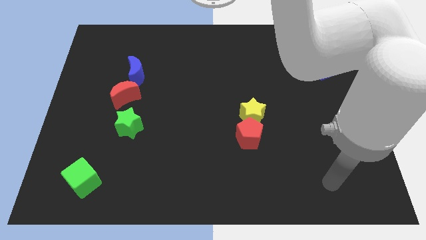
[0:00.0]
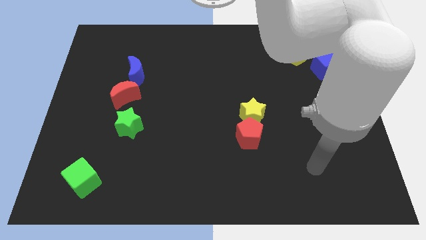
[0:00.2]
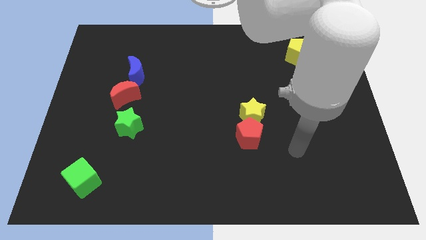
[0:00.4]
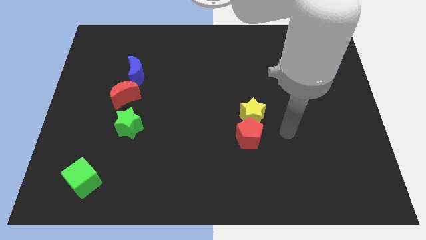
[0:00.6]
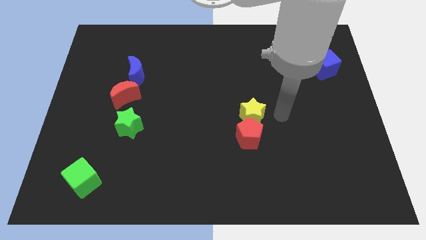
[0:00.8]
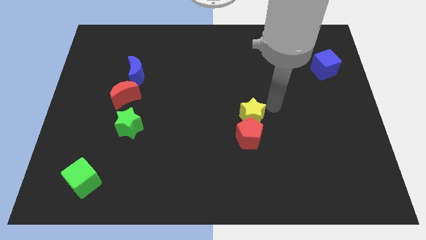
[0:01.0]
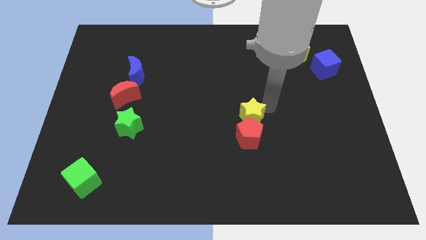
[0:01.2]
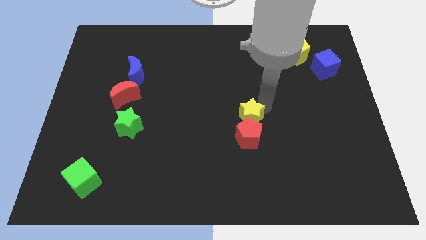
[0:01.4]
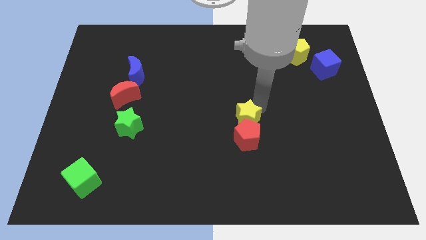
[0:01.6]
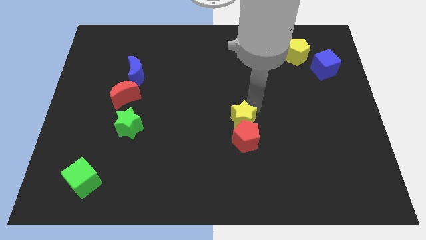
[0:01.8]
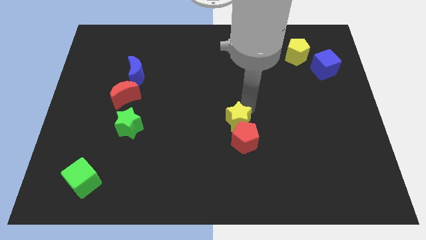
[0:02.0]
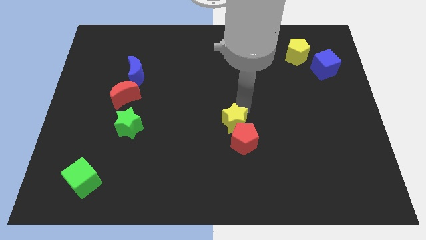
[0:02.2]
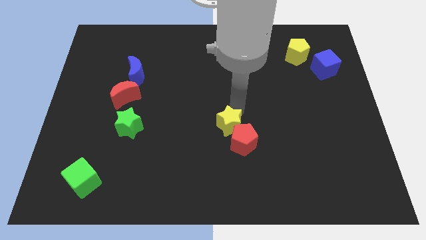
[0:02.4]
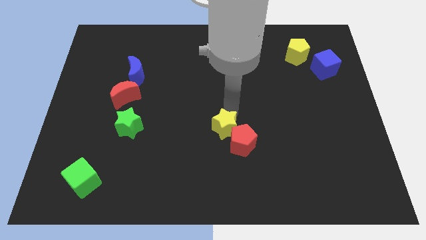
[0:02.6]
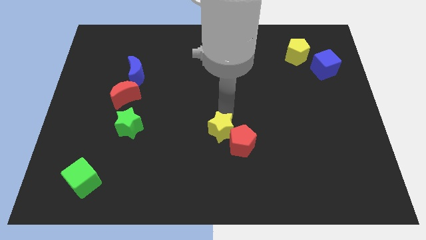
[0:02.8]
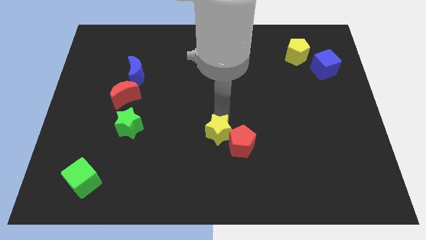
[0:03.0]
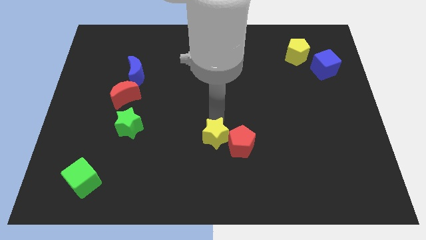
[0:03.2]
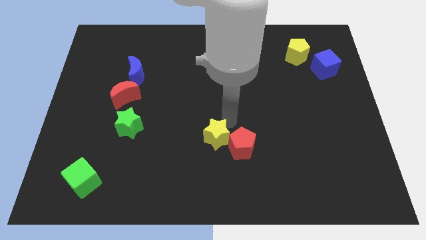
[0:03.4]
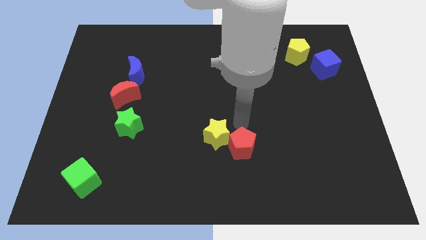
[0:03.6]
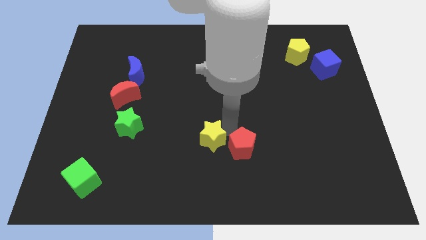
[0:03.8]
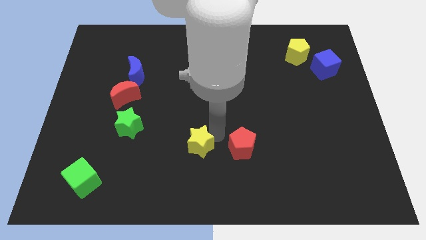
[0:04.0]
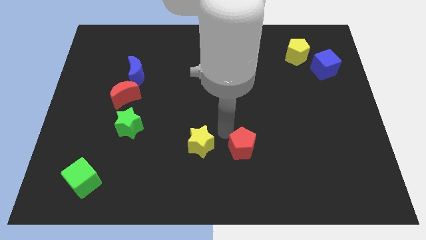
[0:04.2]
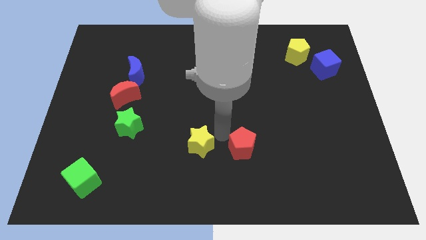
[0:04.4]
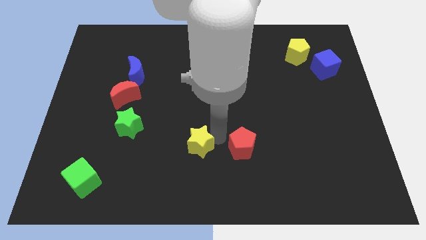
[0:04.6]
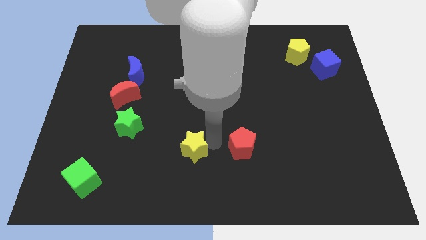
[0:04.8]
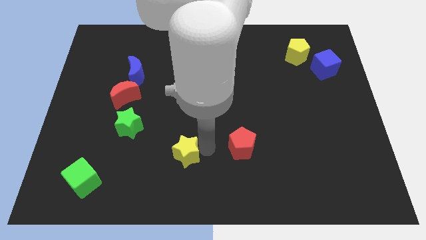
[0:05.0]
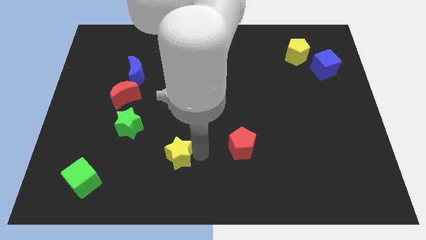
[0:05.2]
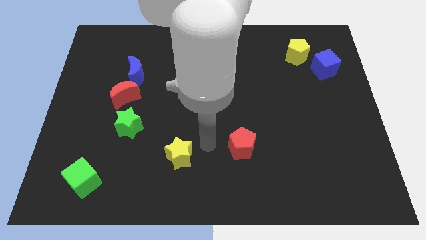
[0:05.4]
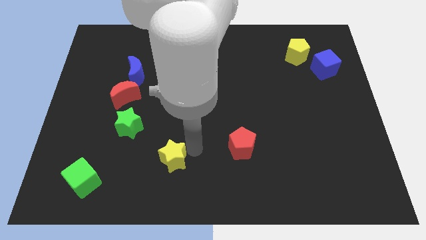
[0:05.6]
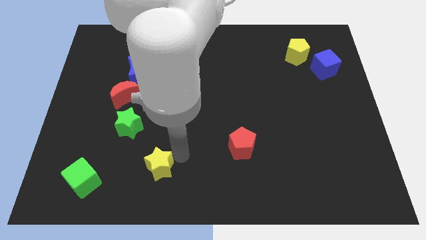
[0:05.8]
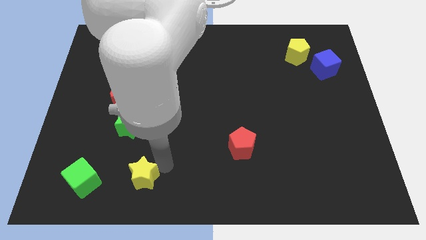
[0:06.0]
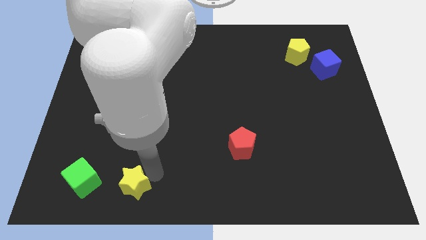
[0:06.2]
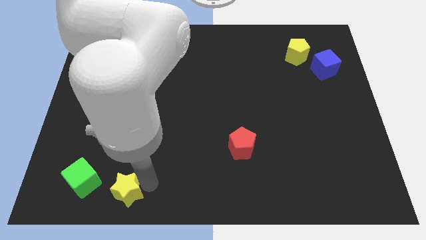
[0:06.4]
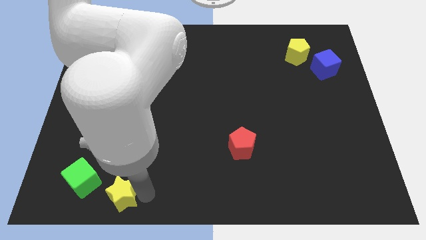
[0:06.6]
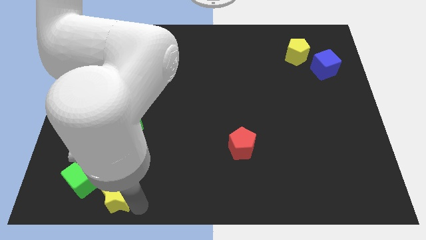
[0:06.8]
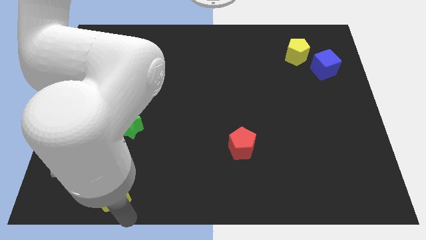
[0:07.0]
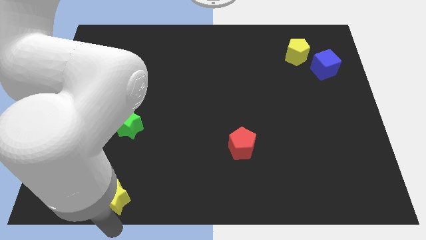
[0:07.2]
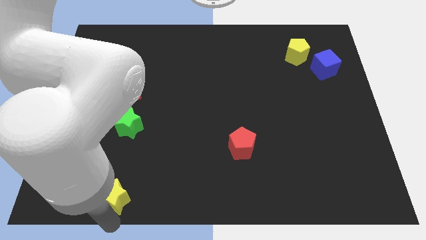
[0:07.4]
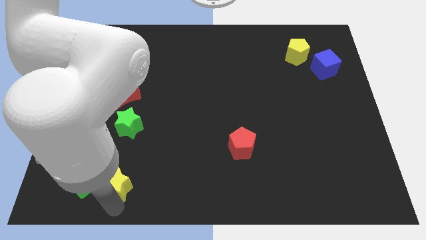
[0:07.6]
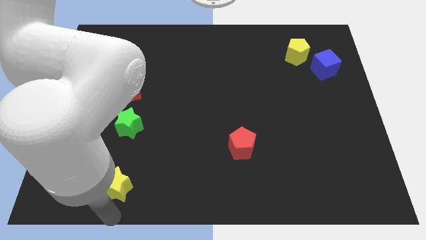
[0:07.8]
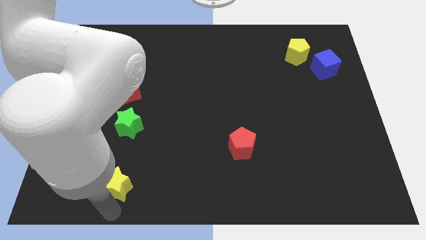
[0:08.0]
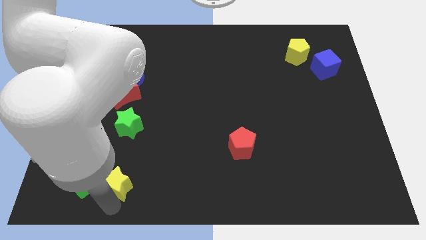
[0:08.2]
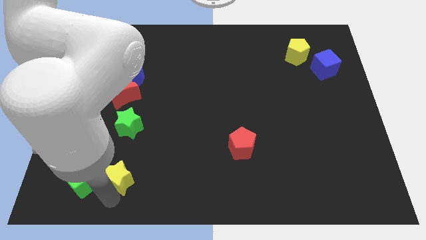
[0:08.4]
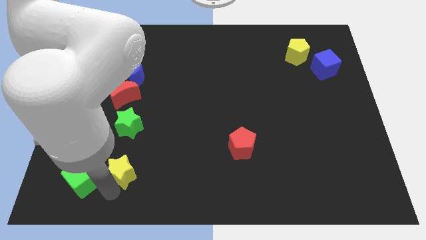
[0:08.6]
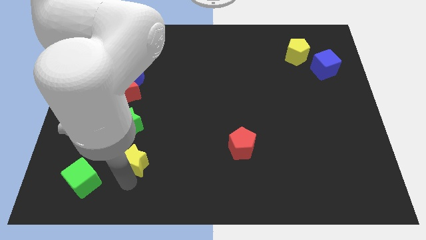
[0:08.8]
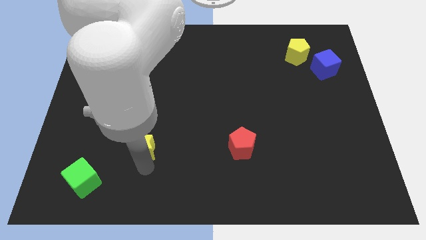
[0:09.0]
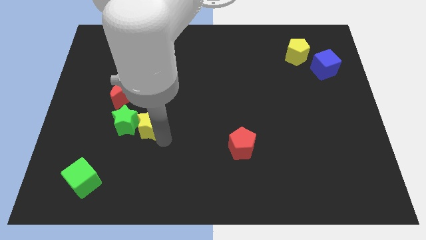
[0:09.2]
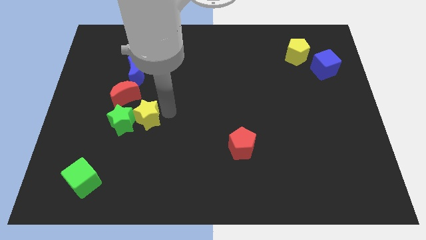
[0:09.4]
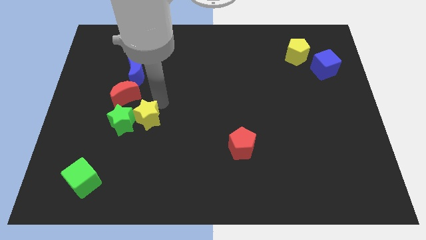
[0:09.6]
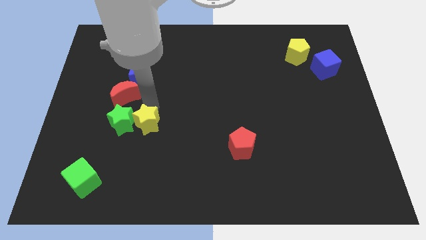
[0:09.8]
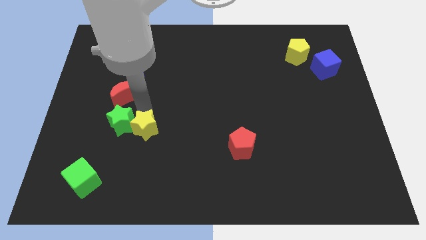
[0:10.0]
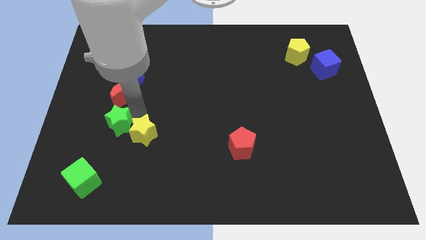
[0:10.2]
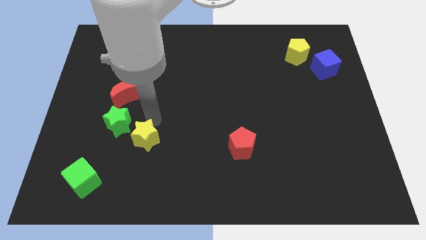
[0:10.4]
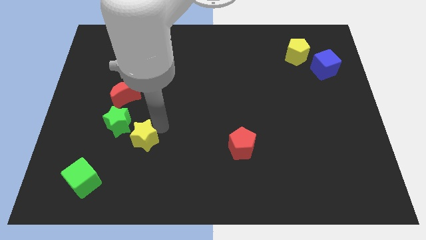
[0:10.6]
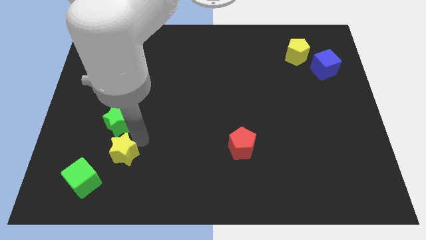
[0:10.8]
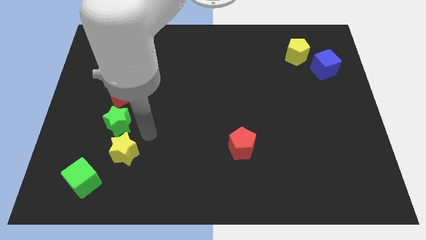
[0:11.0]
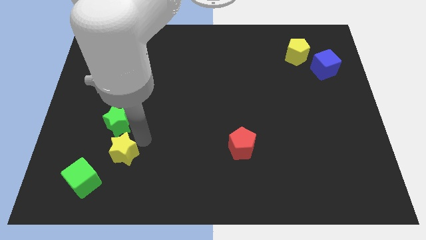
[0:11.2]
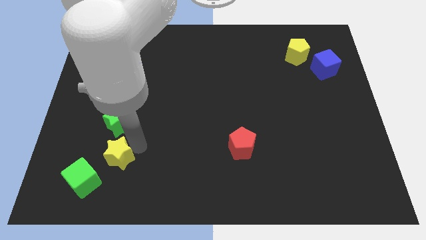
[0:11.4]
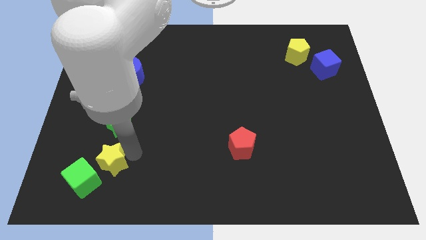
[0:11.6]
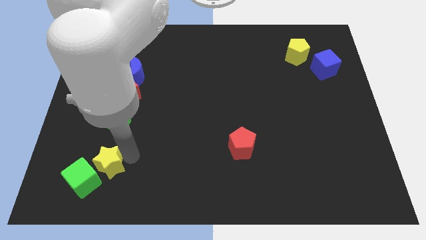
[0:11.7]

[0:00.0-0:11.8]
put the yellow star next to the green cube

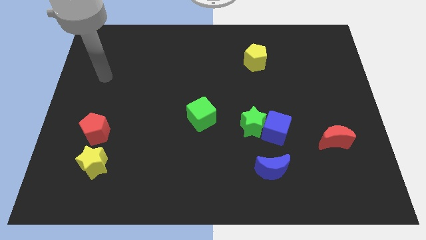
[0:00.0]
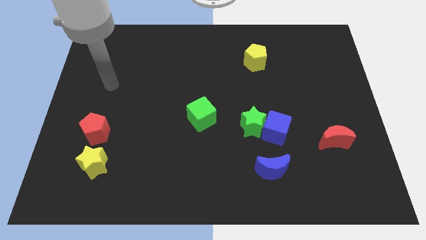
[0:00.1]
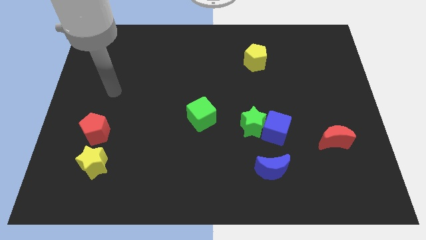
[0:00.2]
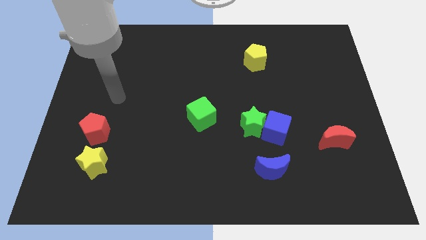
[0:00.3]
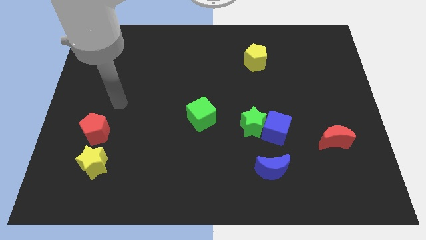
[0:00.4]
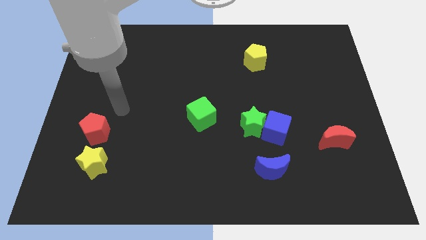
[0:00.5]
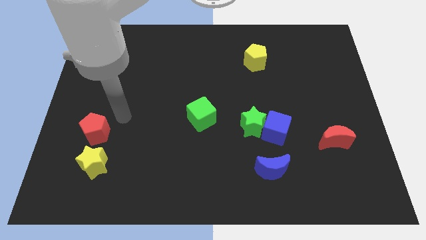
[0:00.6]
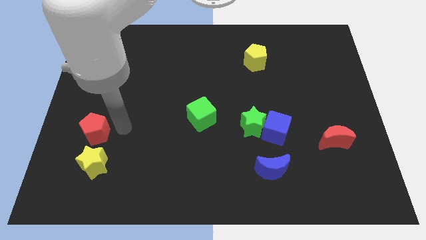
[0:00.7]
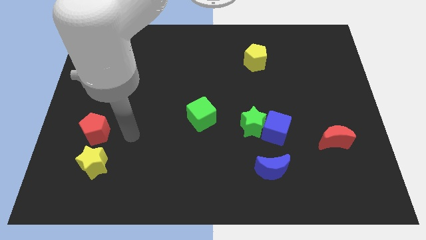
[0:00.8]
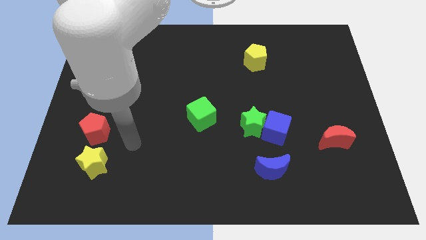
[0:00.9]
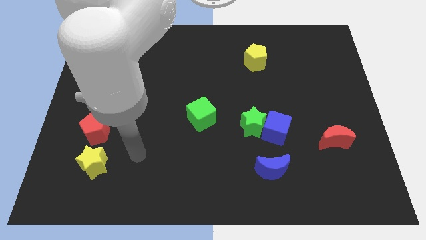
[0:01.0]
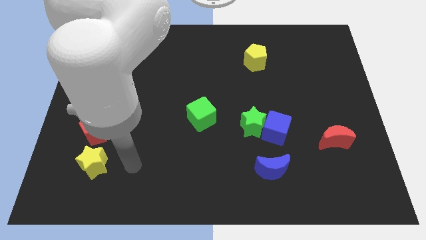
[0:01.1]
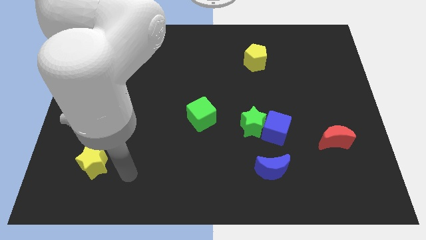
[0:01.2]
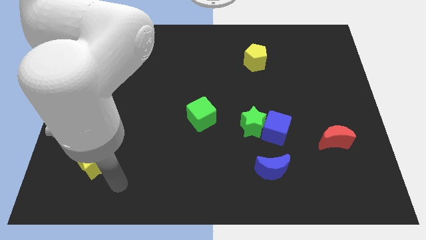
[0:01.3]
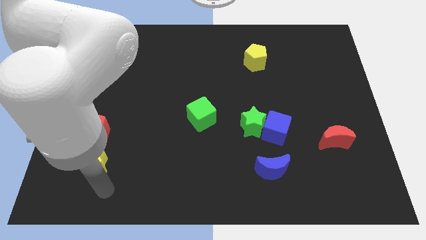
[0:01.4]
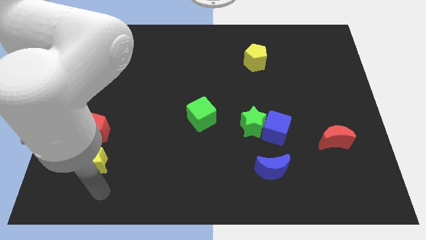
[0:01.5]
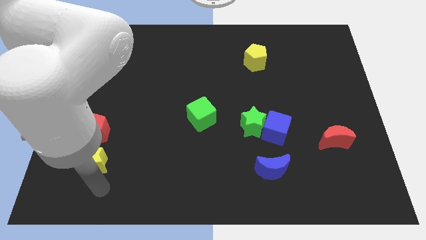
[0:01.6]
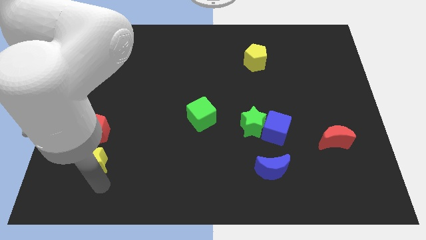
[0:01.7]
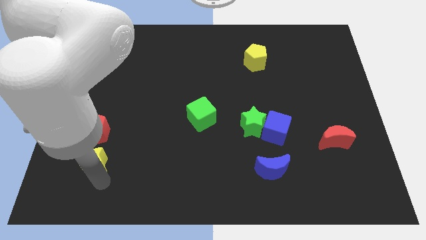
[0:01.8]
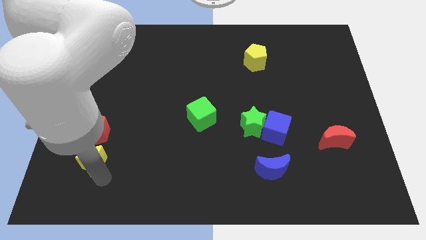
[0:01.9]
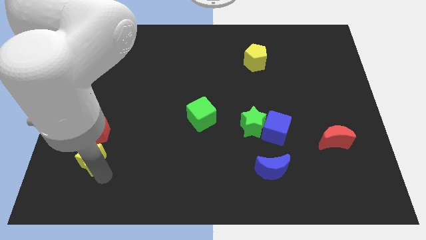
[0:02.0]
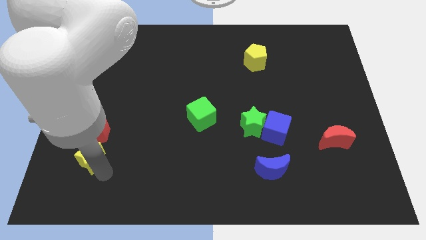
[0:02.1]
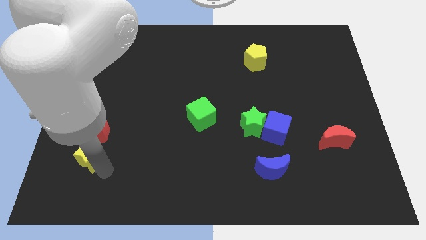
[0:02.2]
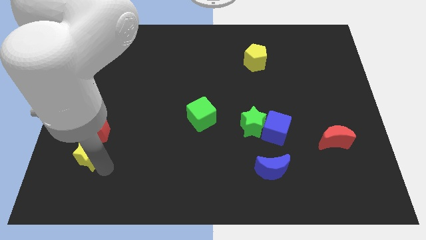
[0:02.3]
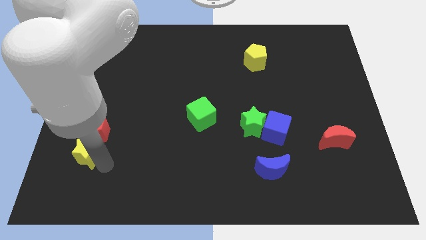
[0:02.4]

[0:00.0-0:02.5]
put the yellow star to the red pentagon
